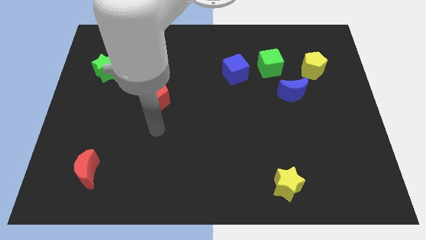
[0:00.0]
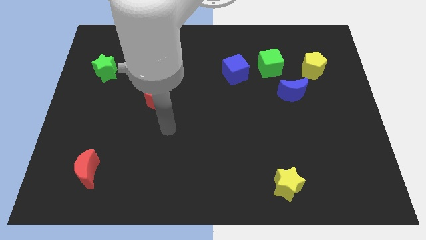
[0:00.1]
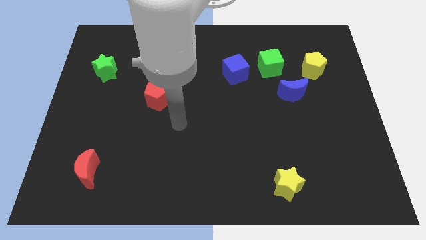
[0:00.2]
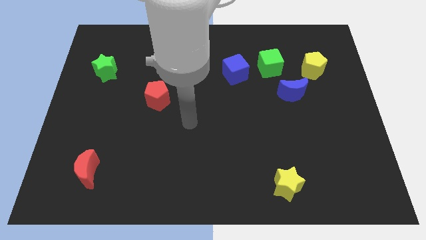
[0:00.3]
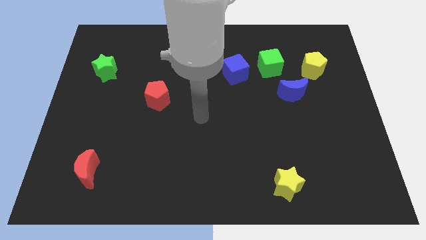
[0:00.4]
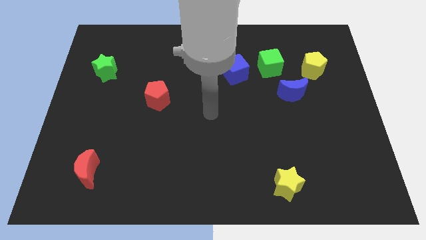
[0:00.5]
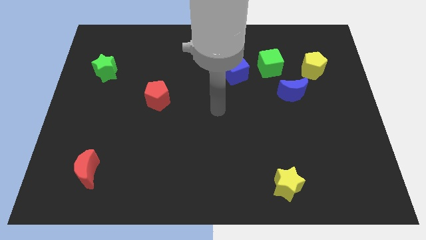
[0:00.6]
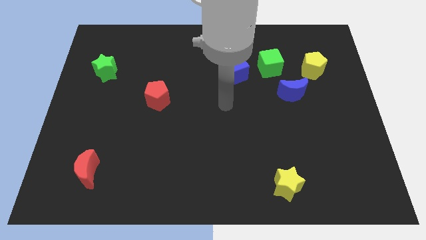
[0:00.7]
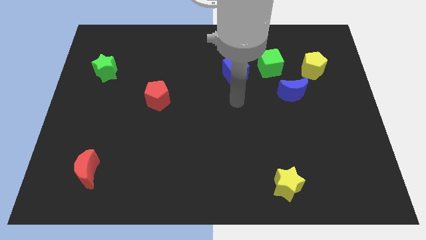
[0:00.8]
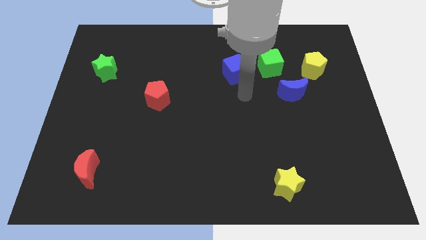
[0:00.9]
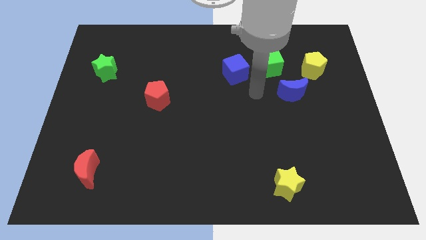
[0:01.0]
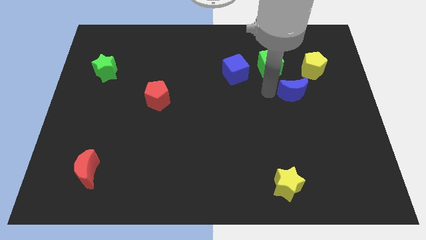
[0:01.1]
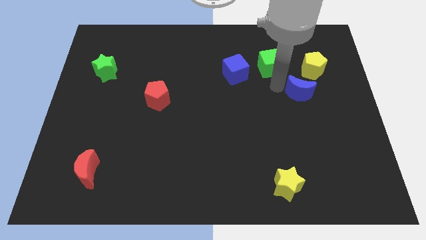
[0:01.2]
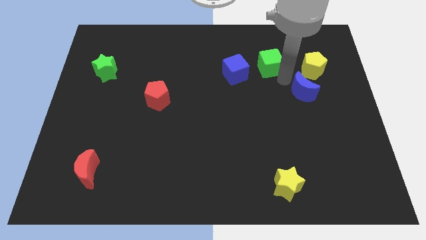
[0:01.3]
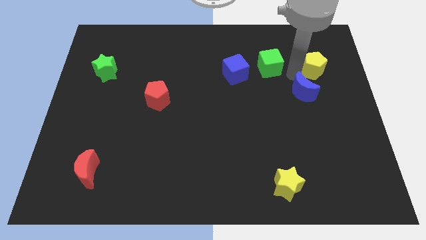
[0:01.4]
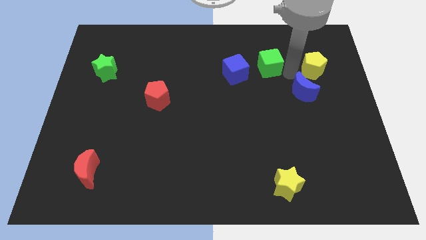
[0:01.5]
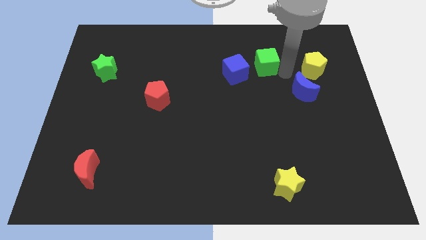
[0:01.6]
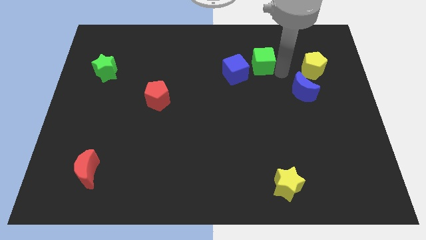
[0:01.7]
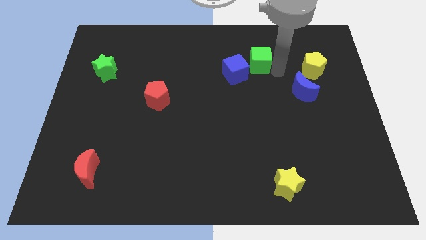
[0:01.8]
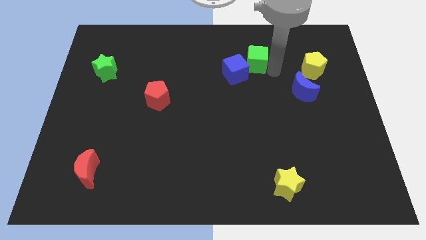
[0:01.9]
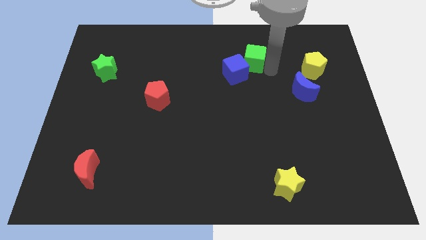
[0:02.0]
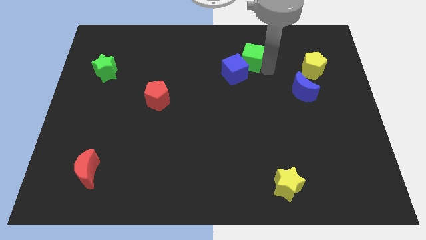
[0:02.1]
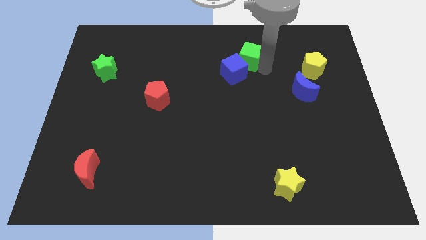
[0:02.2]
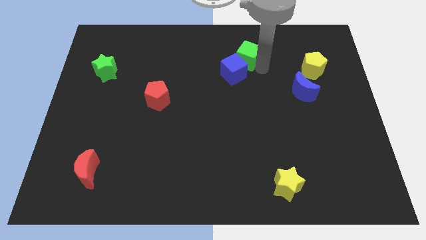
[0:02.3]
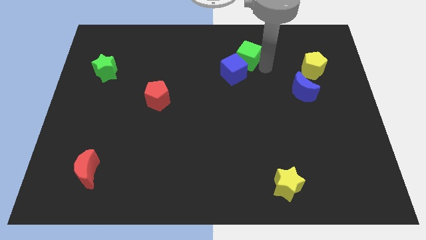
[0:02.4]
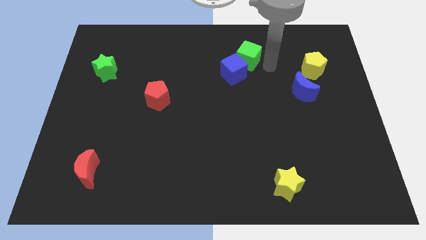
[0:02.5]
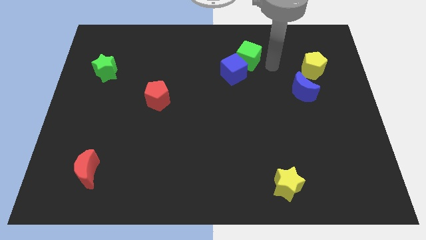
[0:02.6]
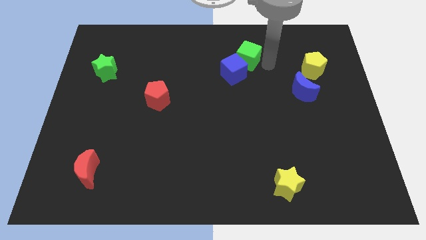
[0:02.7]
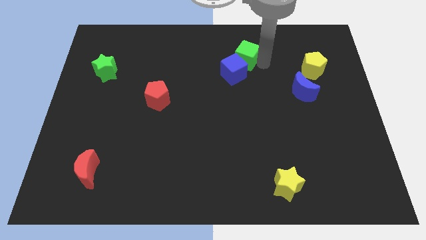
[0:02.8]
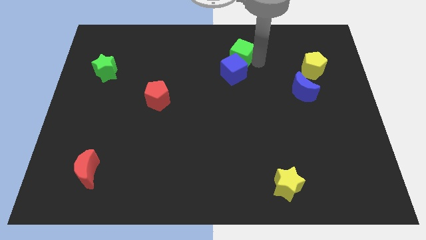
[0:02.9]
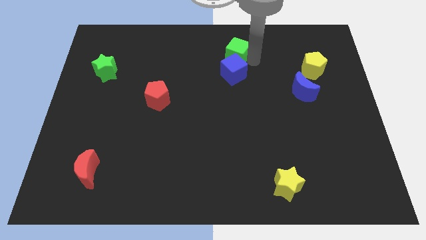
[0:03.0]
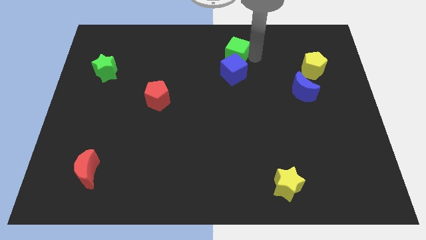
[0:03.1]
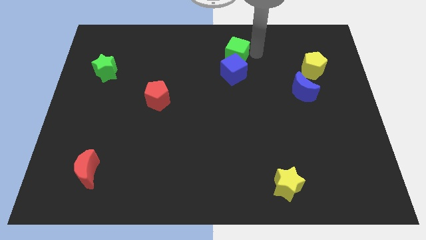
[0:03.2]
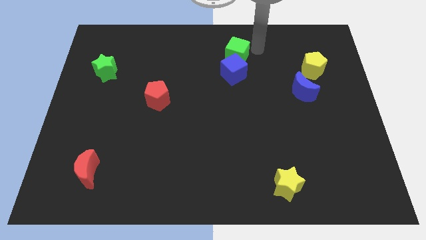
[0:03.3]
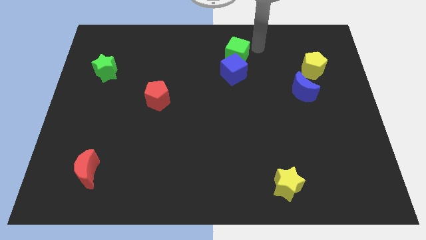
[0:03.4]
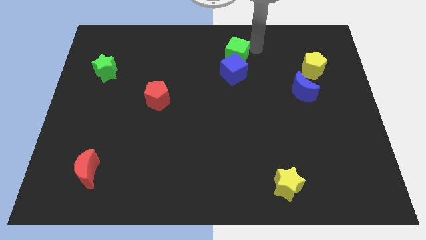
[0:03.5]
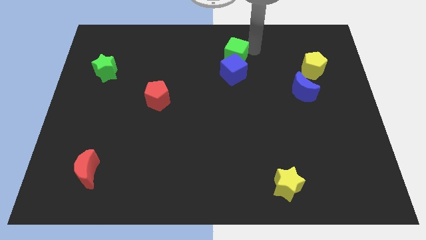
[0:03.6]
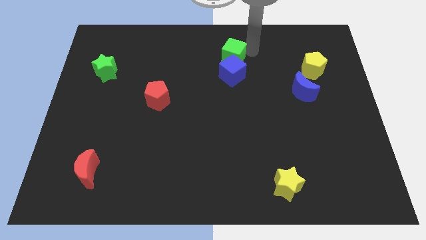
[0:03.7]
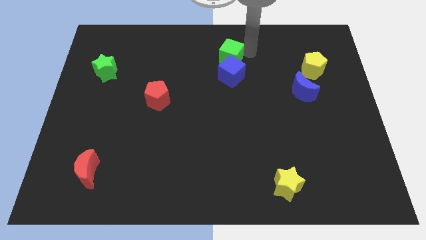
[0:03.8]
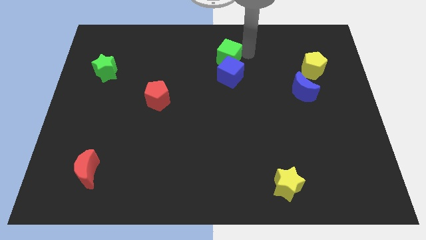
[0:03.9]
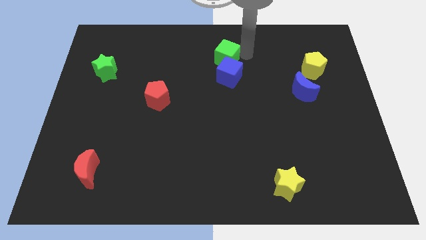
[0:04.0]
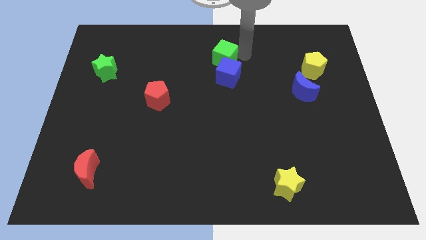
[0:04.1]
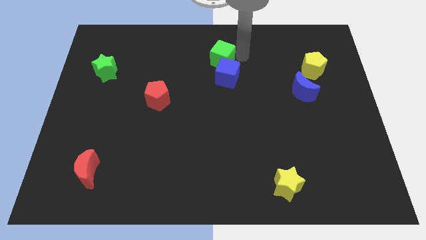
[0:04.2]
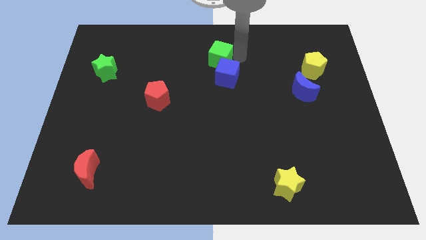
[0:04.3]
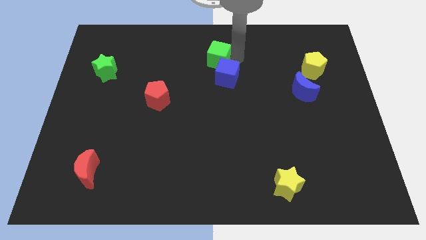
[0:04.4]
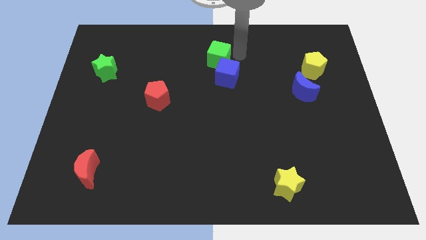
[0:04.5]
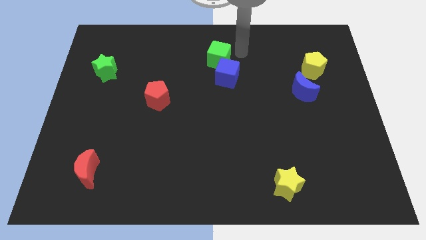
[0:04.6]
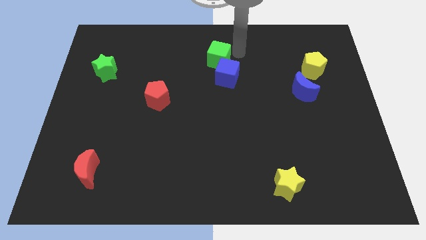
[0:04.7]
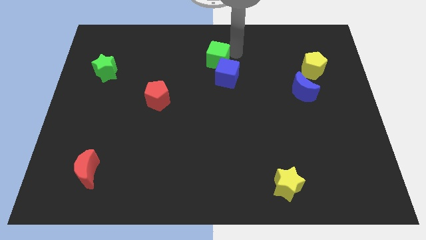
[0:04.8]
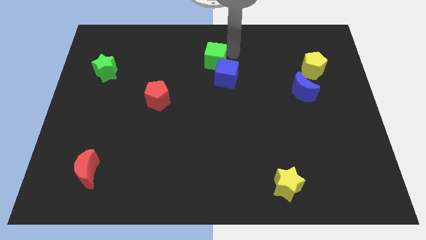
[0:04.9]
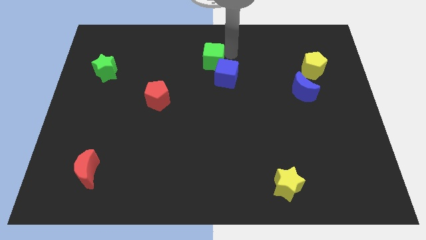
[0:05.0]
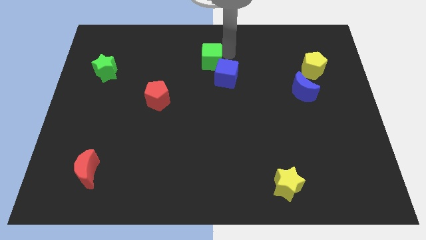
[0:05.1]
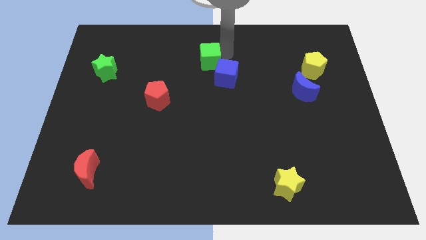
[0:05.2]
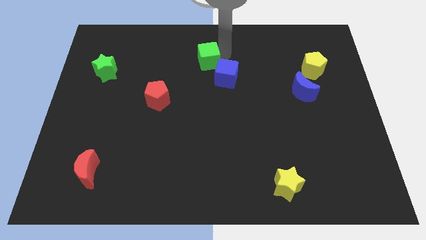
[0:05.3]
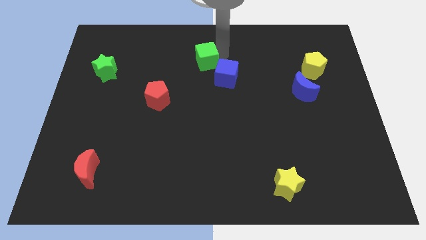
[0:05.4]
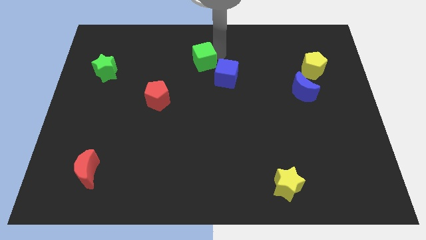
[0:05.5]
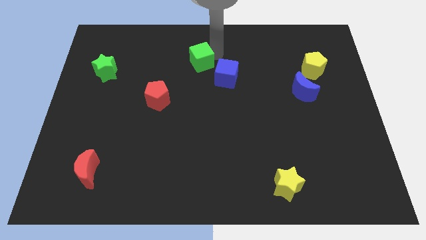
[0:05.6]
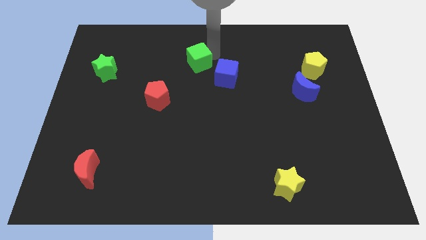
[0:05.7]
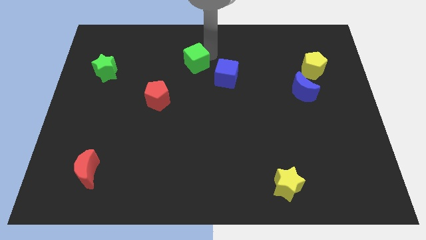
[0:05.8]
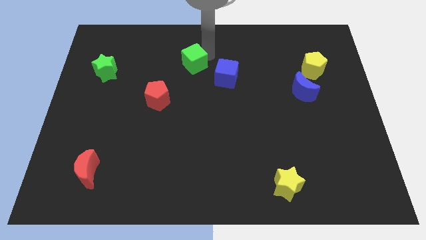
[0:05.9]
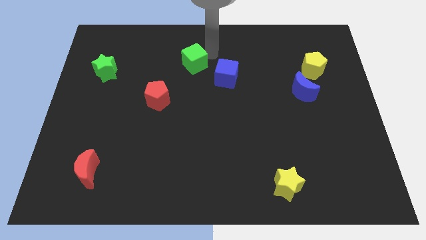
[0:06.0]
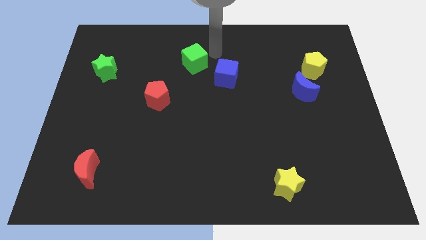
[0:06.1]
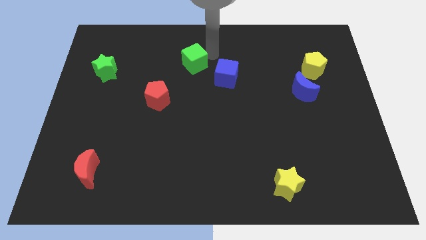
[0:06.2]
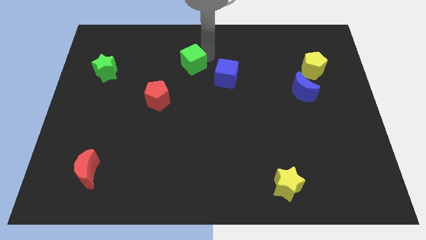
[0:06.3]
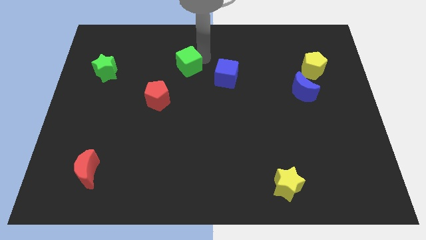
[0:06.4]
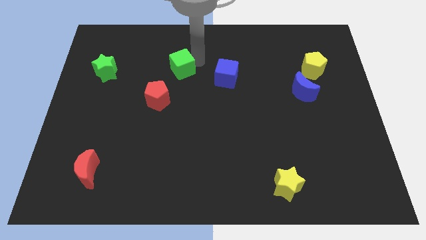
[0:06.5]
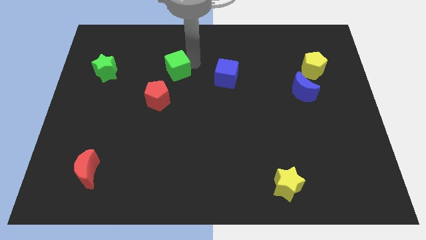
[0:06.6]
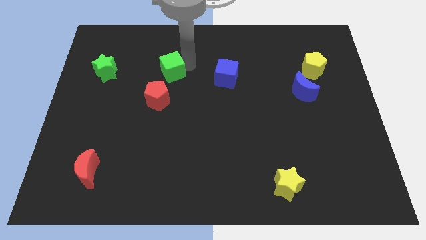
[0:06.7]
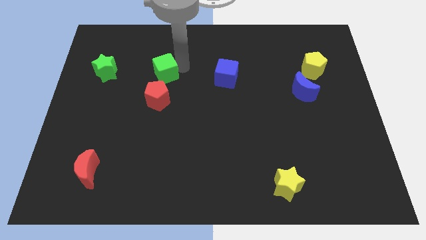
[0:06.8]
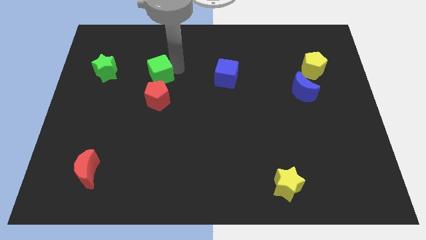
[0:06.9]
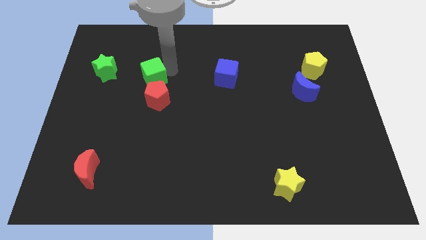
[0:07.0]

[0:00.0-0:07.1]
move the green cube diagonally up and to the left of the red pentagon

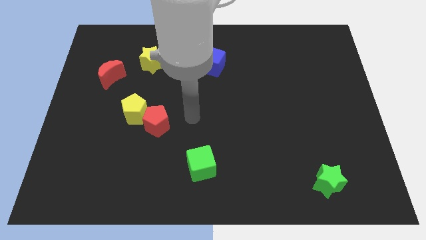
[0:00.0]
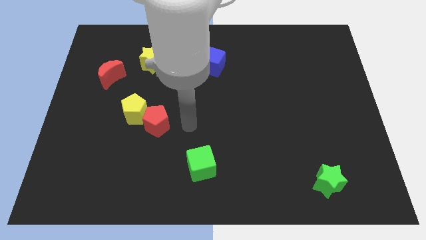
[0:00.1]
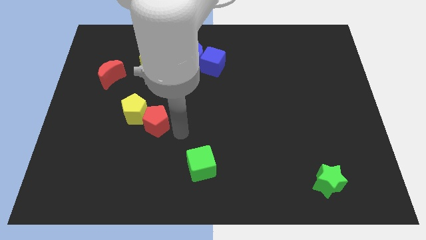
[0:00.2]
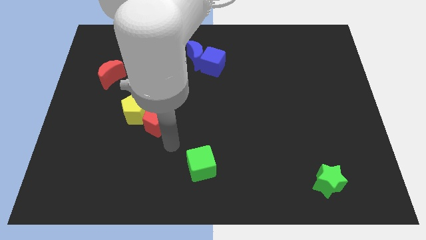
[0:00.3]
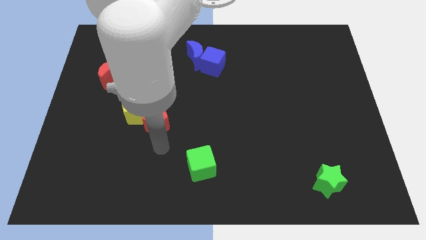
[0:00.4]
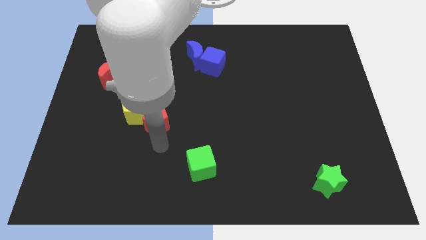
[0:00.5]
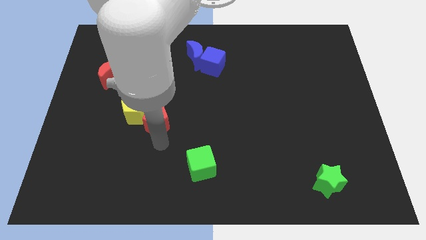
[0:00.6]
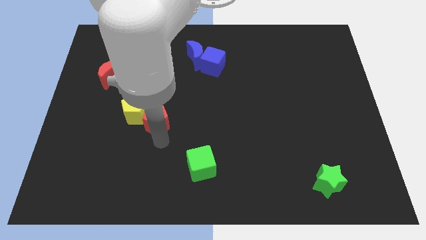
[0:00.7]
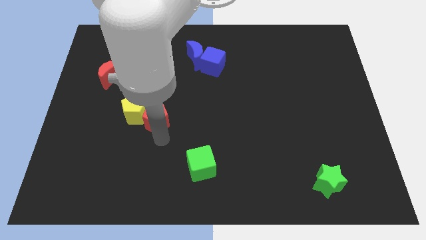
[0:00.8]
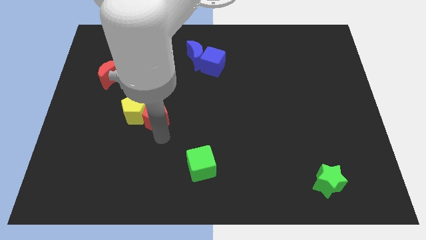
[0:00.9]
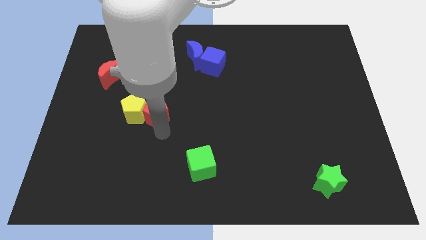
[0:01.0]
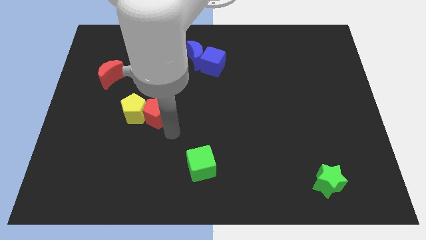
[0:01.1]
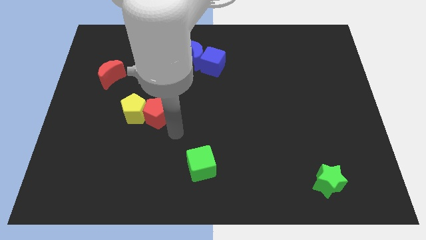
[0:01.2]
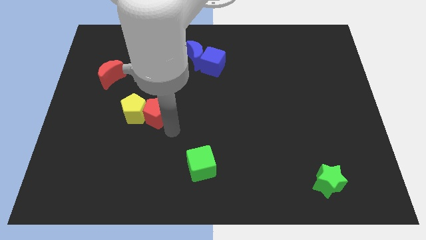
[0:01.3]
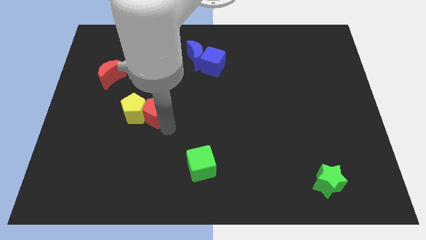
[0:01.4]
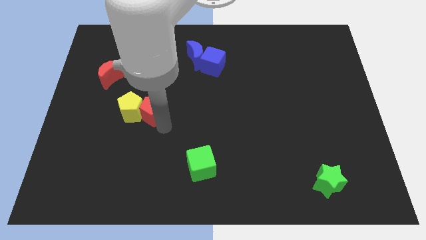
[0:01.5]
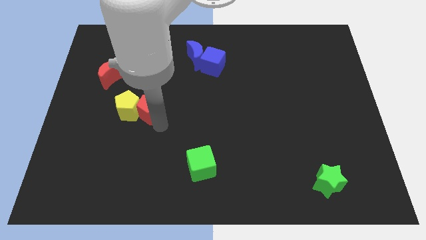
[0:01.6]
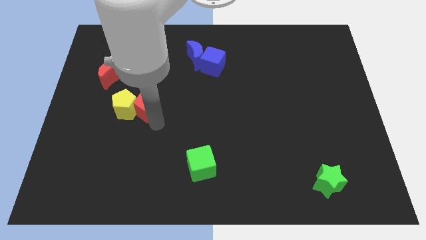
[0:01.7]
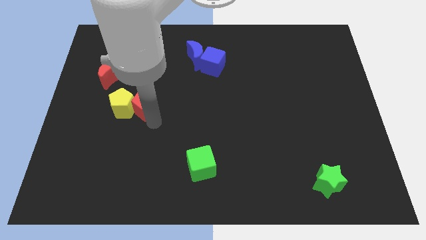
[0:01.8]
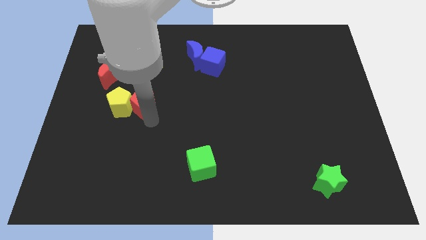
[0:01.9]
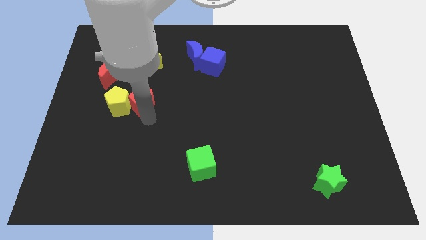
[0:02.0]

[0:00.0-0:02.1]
slide the red pentagon diagonally down and to the right of the red moon
